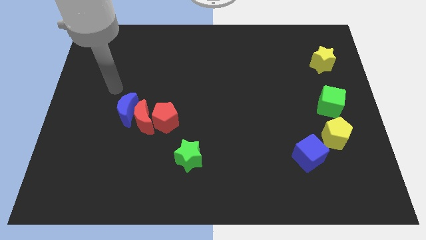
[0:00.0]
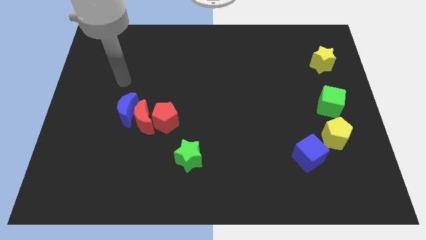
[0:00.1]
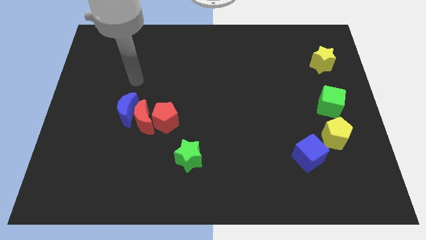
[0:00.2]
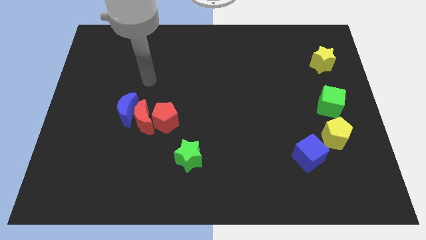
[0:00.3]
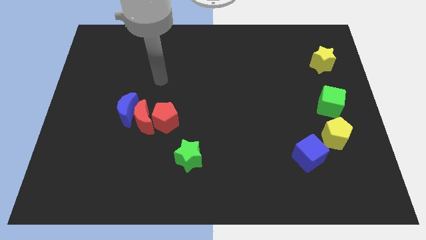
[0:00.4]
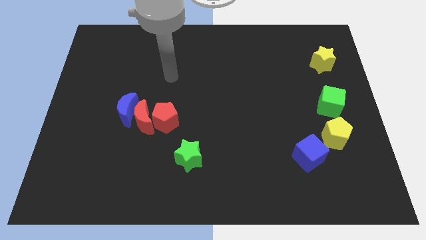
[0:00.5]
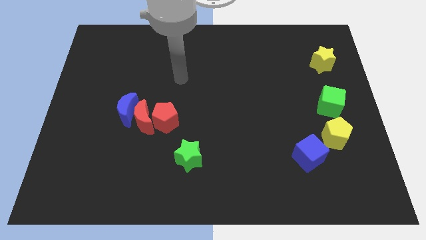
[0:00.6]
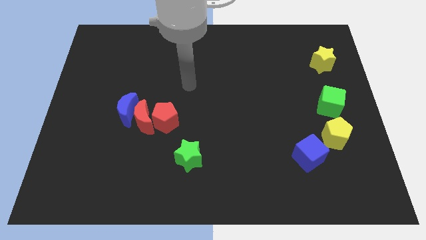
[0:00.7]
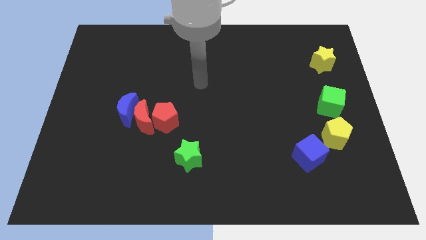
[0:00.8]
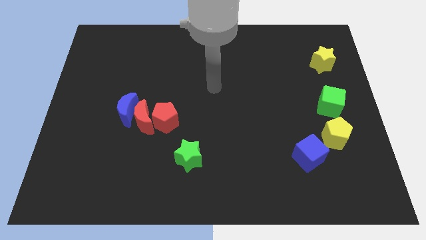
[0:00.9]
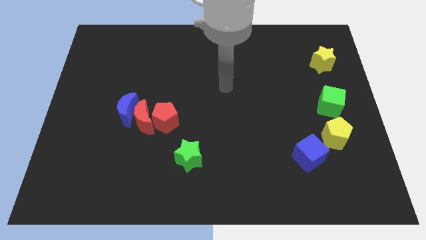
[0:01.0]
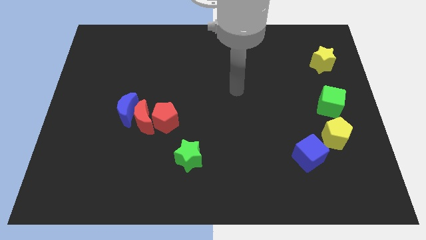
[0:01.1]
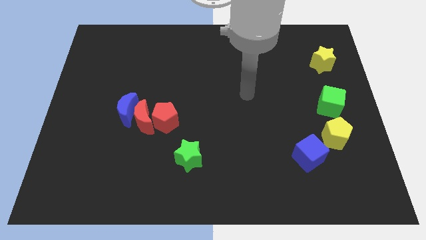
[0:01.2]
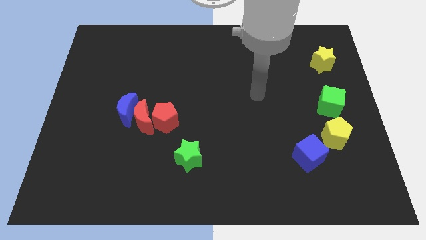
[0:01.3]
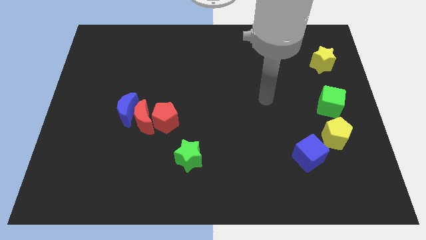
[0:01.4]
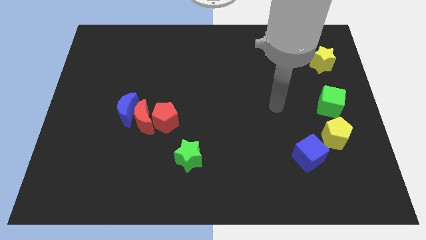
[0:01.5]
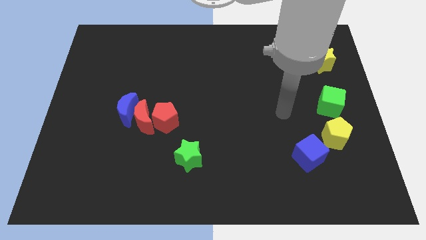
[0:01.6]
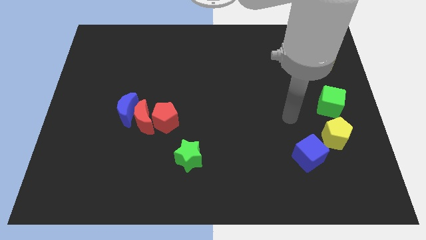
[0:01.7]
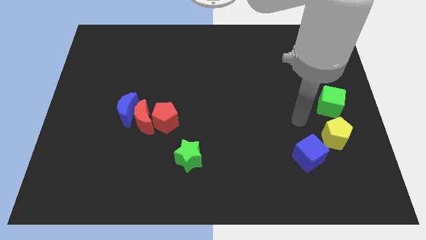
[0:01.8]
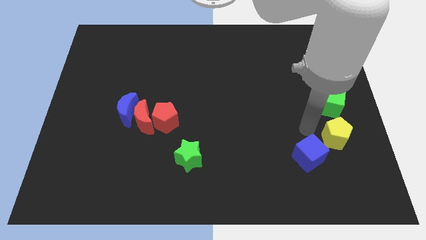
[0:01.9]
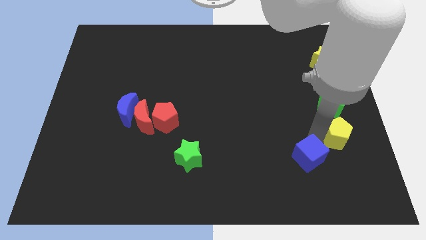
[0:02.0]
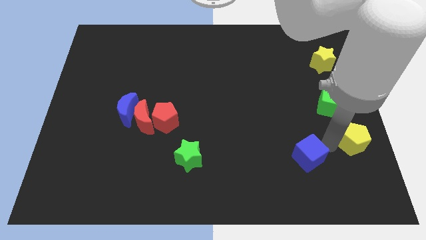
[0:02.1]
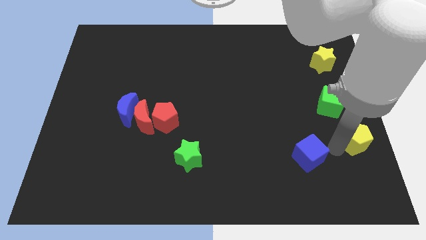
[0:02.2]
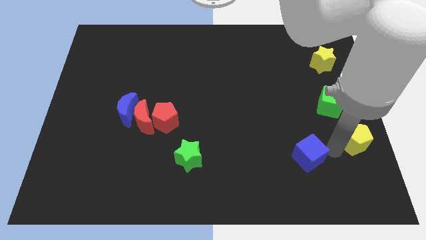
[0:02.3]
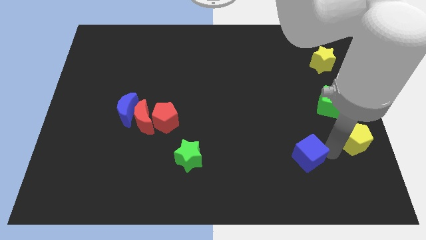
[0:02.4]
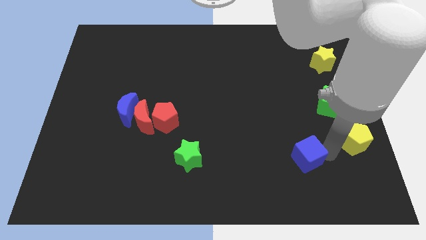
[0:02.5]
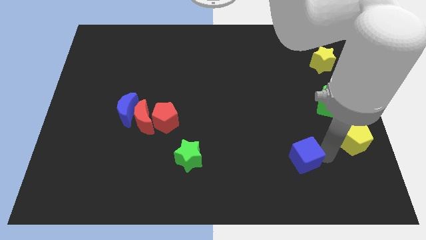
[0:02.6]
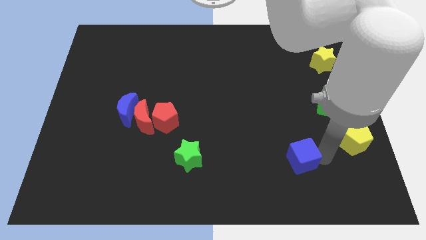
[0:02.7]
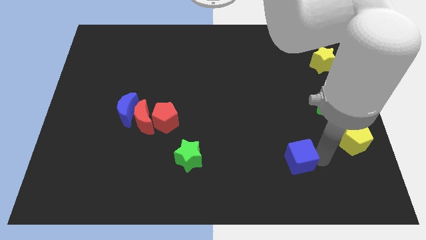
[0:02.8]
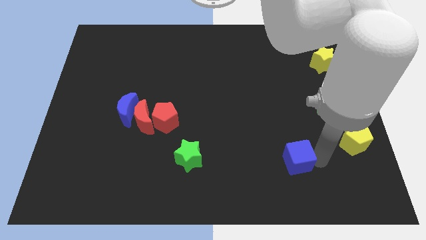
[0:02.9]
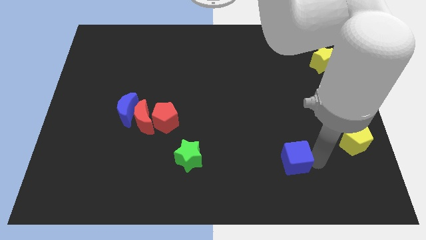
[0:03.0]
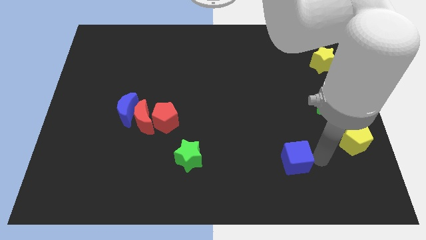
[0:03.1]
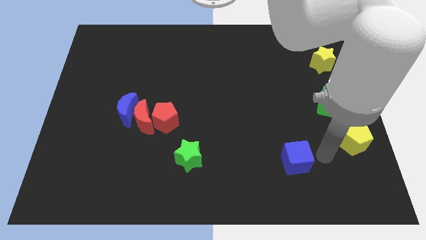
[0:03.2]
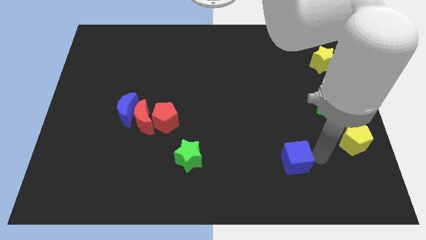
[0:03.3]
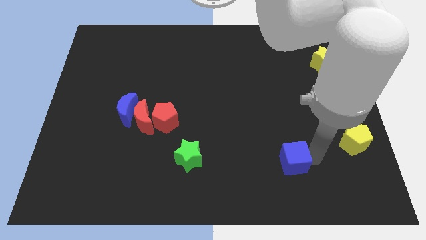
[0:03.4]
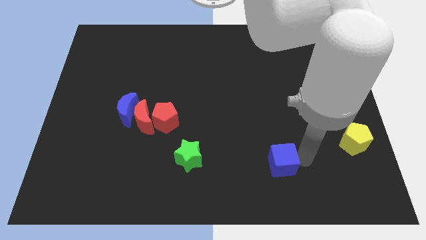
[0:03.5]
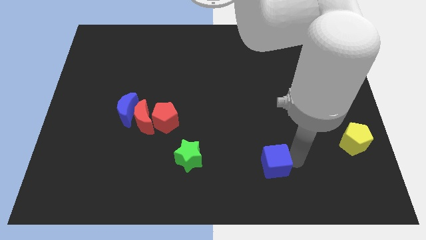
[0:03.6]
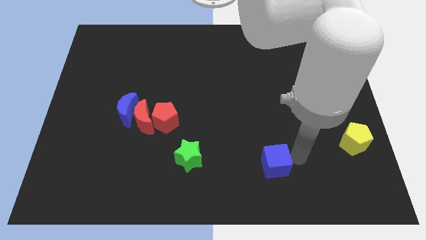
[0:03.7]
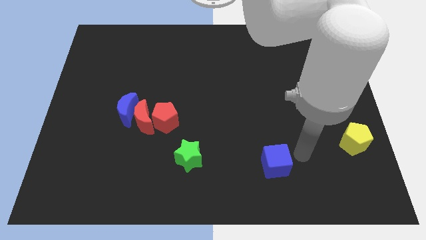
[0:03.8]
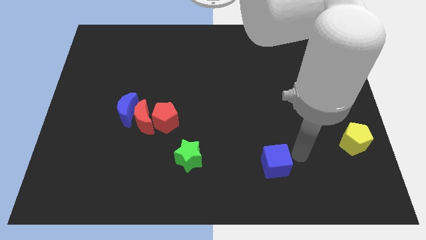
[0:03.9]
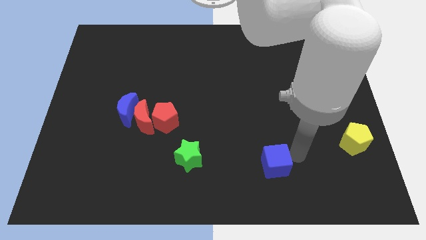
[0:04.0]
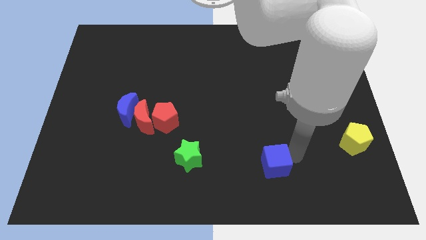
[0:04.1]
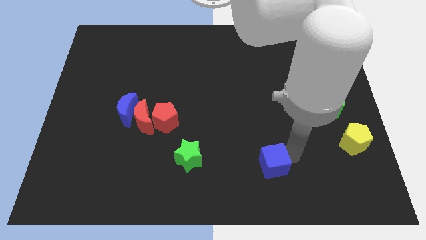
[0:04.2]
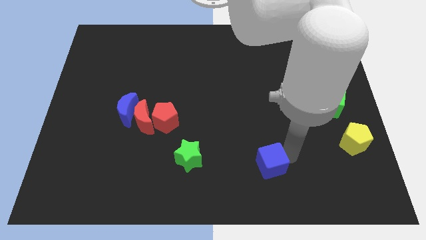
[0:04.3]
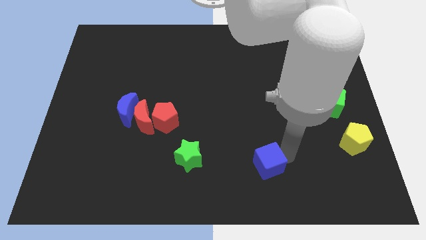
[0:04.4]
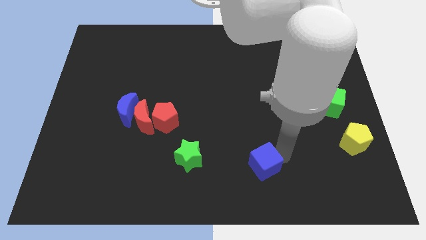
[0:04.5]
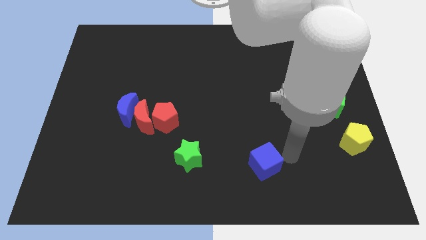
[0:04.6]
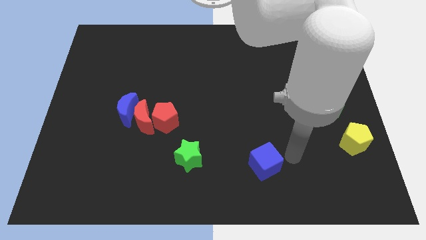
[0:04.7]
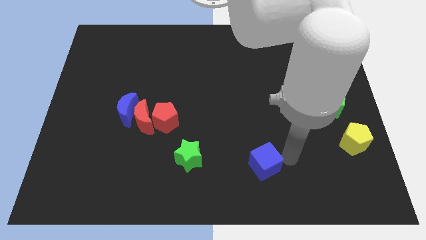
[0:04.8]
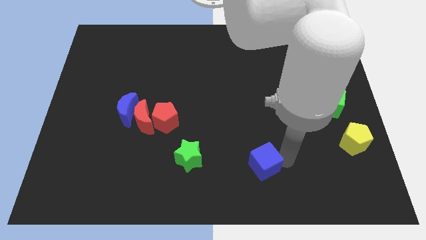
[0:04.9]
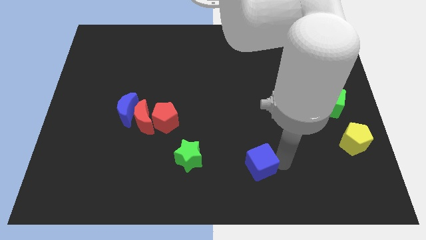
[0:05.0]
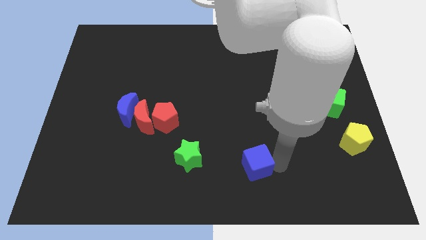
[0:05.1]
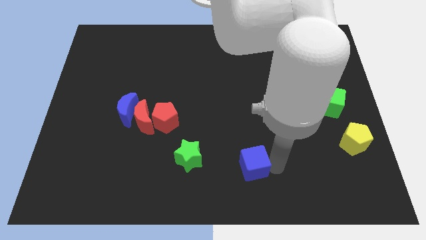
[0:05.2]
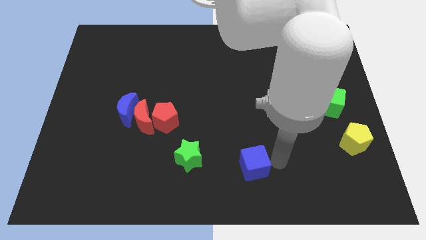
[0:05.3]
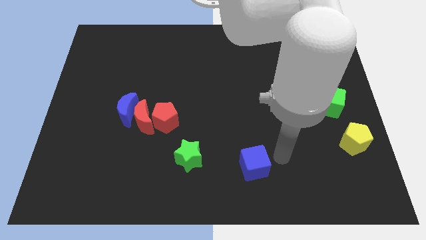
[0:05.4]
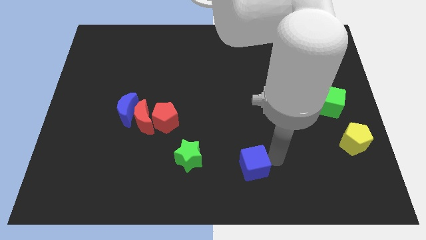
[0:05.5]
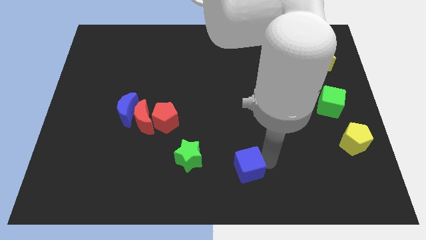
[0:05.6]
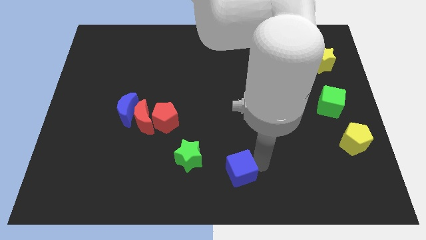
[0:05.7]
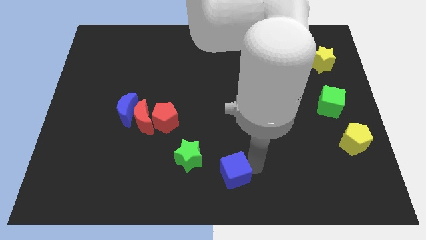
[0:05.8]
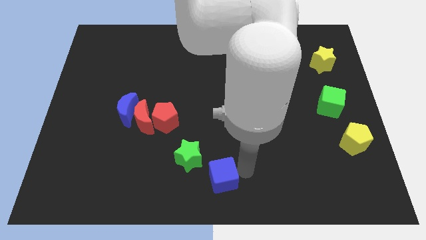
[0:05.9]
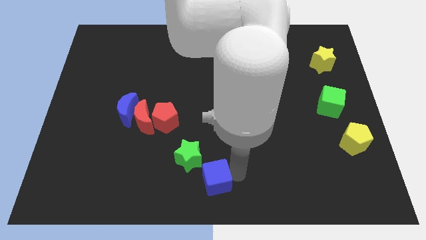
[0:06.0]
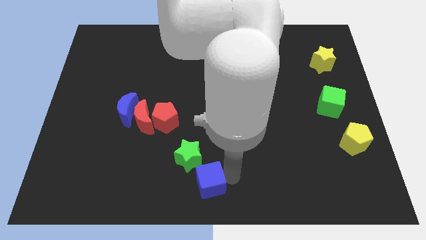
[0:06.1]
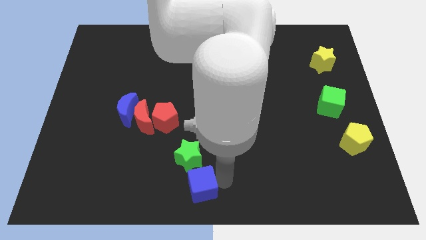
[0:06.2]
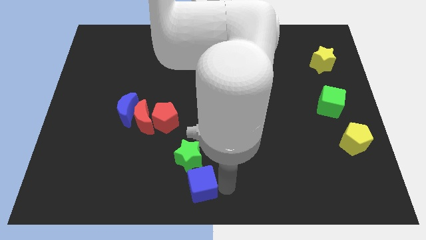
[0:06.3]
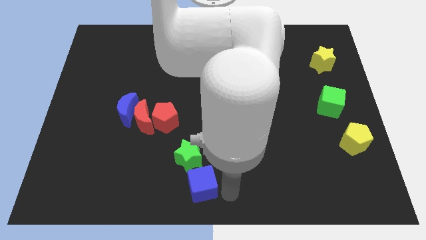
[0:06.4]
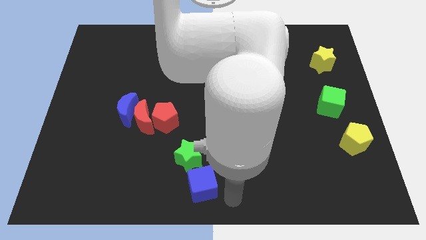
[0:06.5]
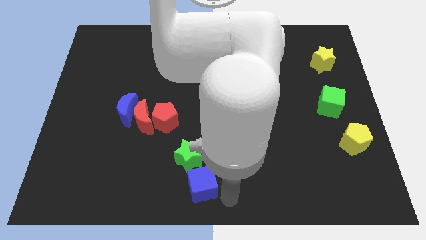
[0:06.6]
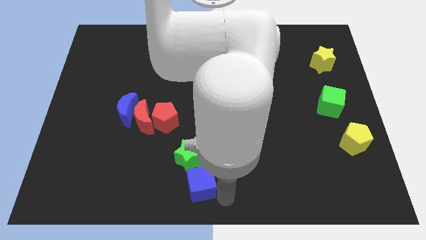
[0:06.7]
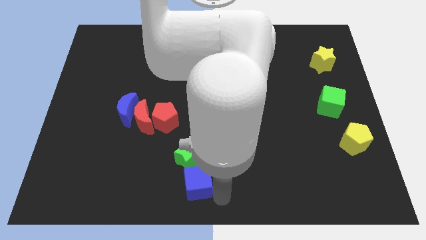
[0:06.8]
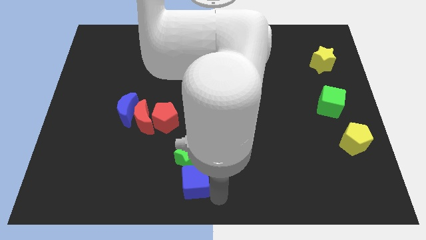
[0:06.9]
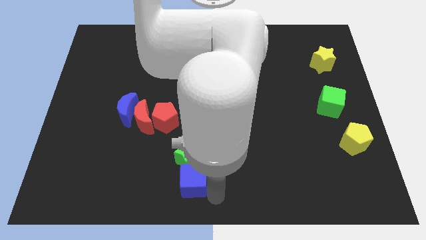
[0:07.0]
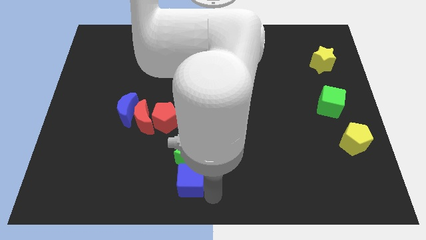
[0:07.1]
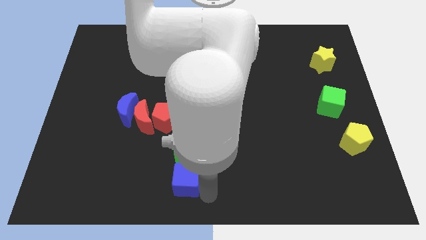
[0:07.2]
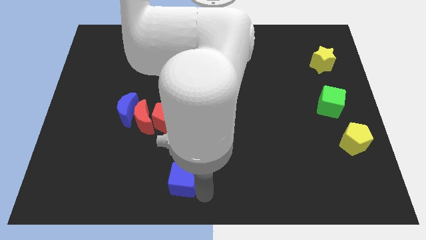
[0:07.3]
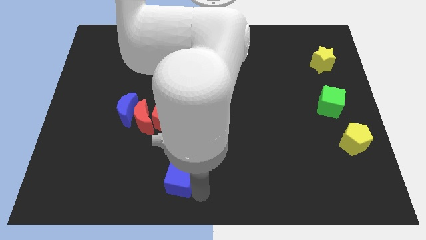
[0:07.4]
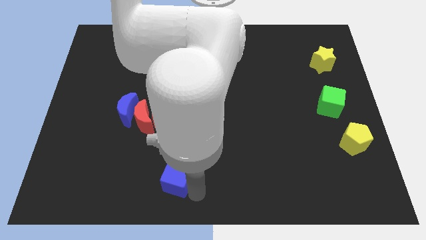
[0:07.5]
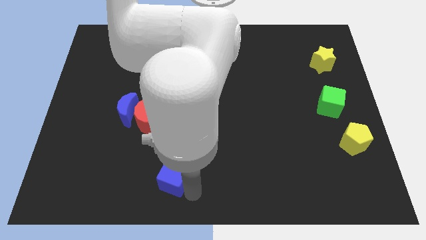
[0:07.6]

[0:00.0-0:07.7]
put the blue cube to the bottom side of the red pentagon
